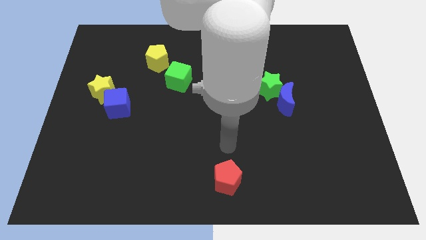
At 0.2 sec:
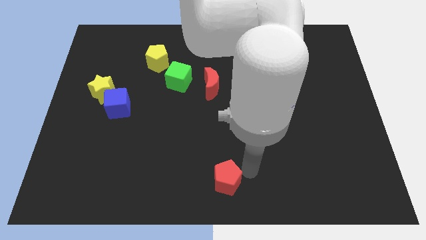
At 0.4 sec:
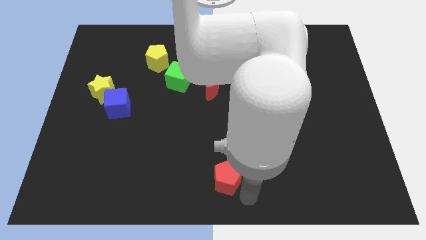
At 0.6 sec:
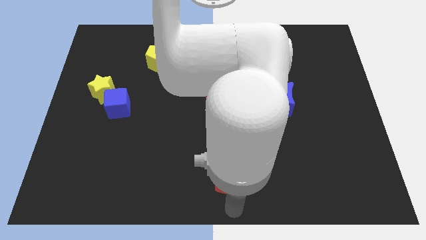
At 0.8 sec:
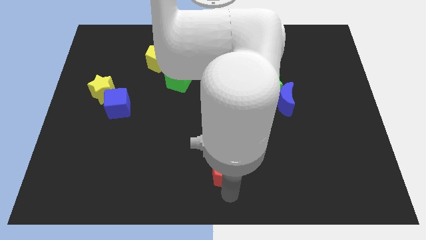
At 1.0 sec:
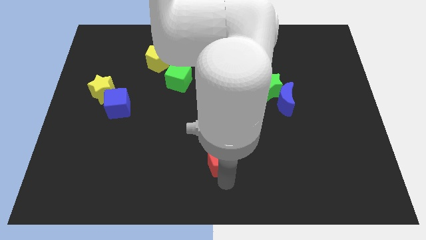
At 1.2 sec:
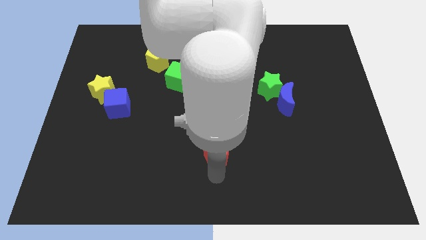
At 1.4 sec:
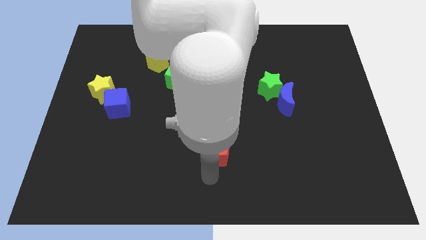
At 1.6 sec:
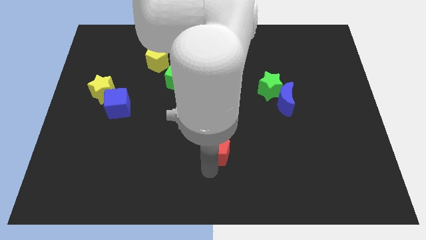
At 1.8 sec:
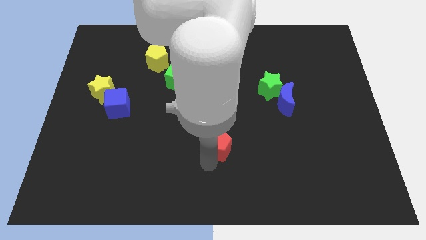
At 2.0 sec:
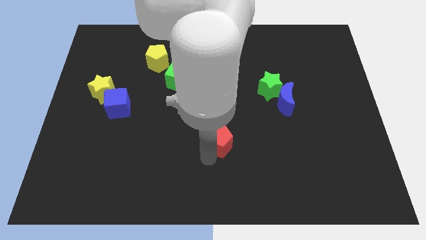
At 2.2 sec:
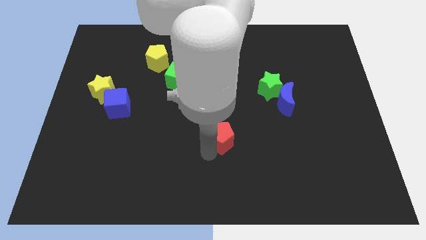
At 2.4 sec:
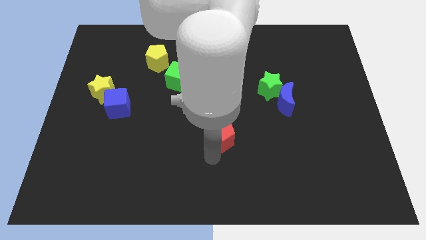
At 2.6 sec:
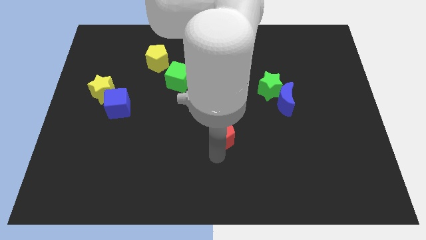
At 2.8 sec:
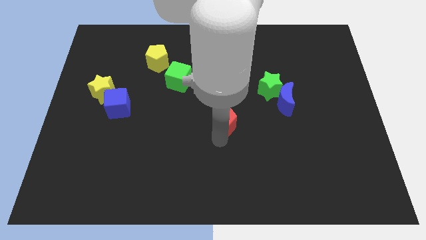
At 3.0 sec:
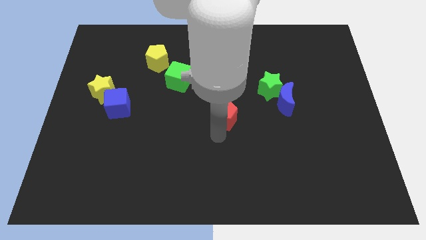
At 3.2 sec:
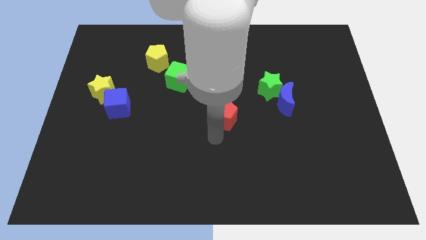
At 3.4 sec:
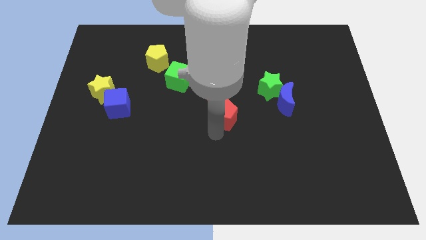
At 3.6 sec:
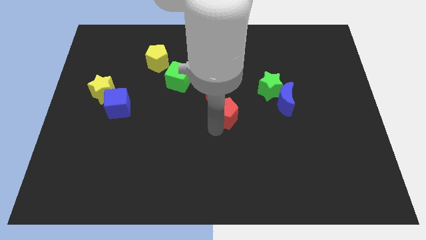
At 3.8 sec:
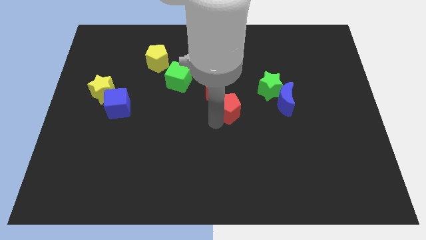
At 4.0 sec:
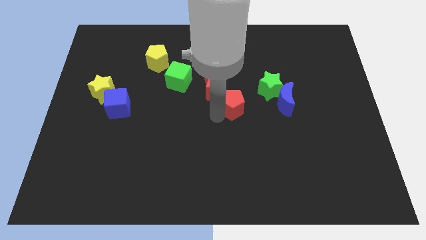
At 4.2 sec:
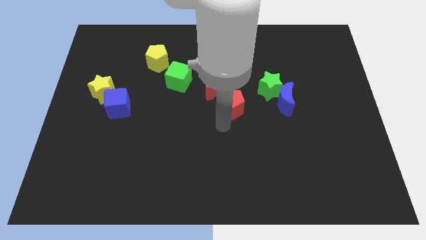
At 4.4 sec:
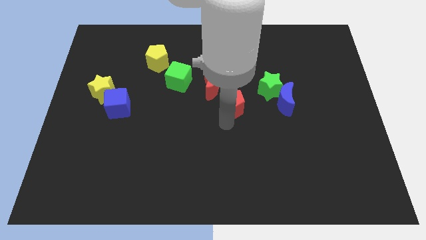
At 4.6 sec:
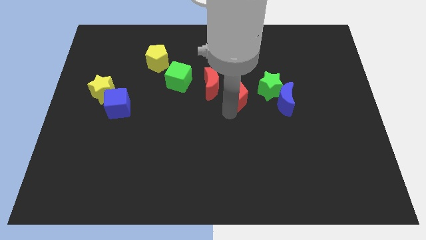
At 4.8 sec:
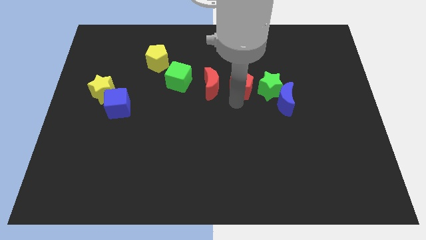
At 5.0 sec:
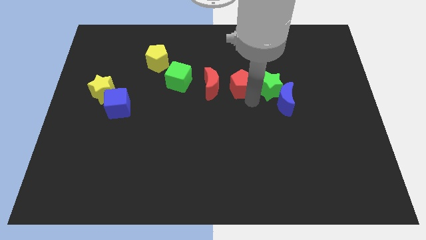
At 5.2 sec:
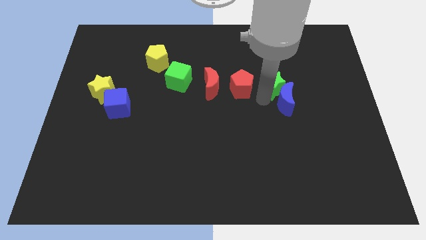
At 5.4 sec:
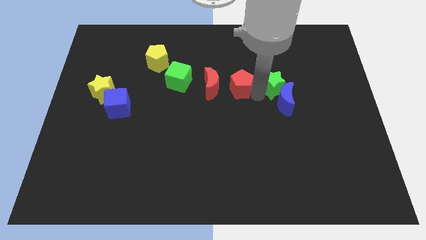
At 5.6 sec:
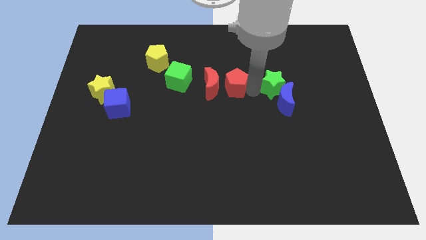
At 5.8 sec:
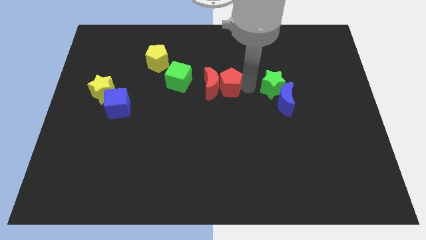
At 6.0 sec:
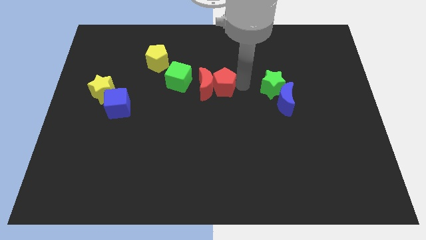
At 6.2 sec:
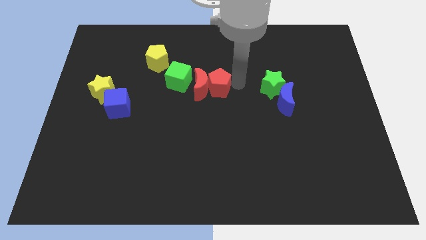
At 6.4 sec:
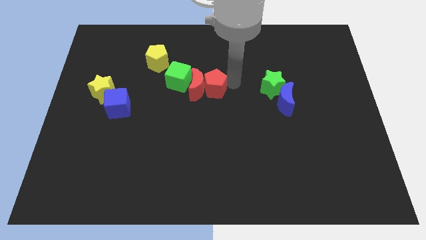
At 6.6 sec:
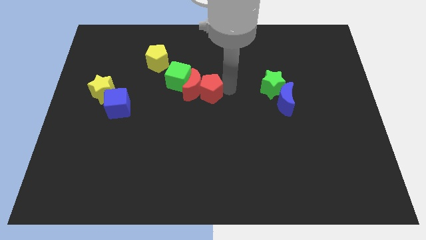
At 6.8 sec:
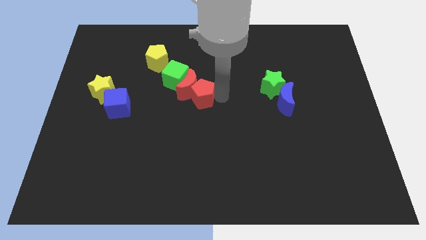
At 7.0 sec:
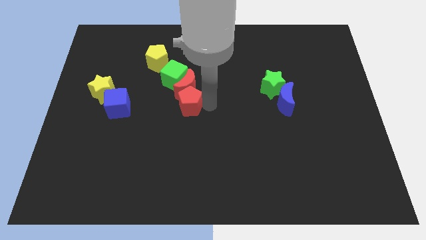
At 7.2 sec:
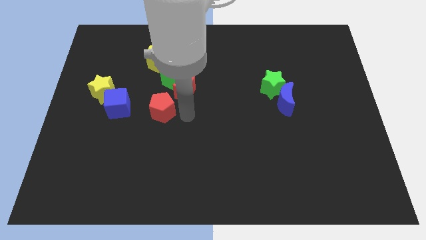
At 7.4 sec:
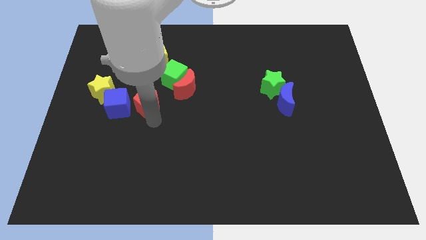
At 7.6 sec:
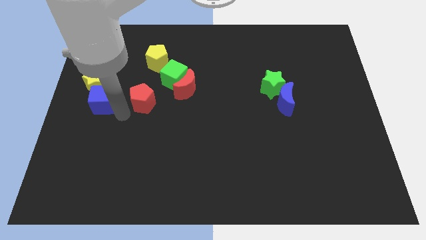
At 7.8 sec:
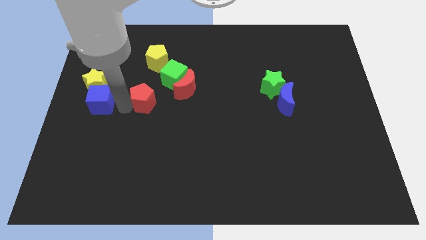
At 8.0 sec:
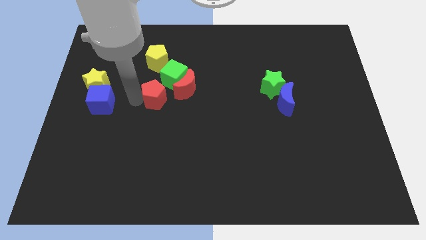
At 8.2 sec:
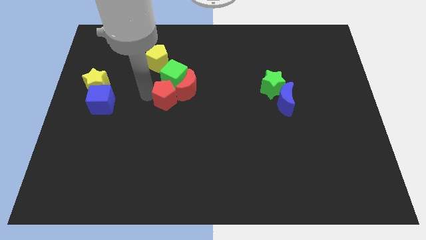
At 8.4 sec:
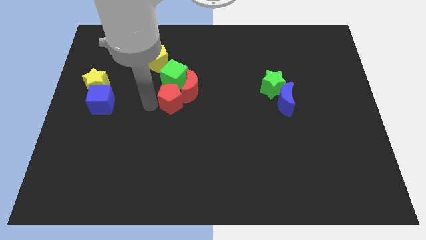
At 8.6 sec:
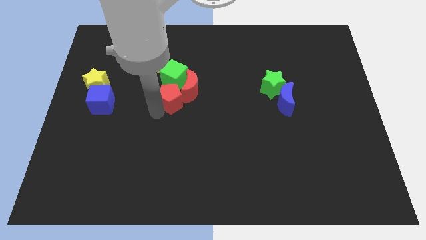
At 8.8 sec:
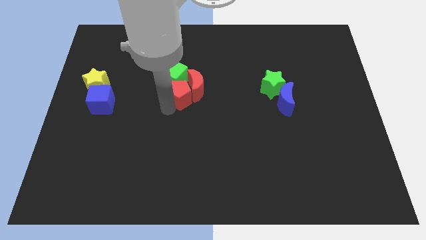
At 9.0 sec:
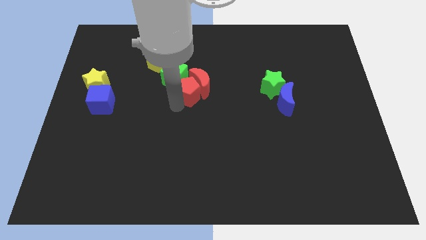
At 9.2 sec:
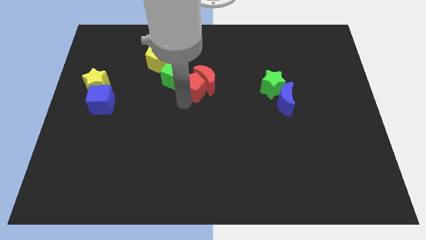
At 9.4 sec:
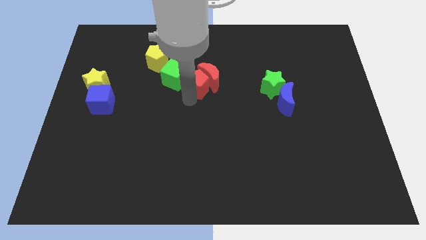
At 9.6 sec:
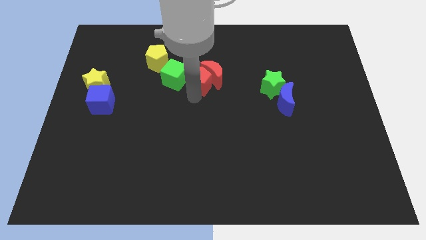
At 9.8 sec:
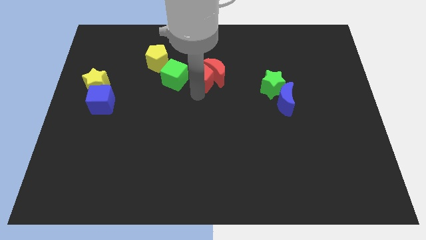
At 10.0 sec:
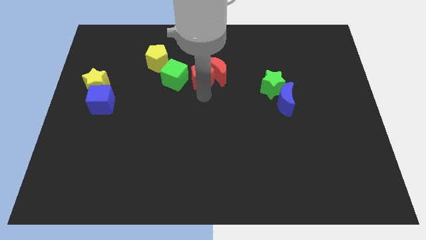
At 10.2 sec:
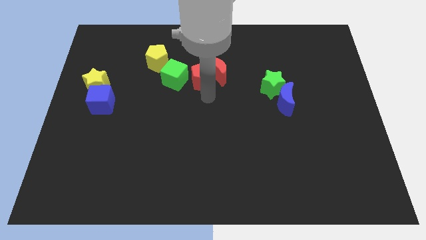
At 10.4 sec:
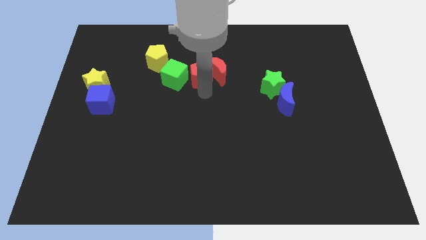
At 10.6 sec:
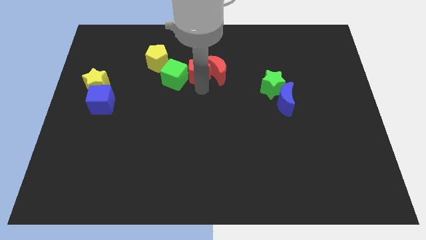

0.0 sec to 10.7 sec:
push the red pentagon just right of the yellow pentagon

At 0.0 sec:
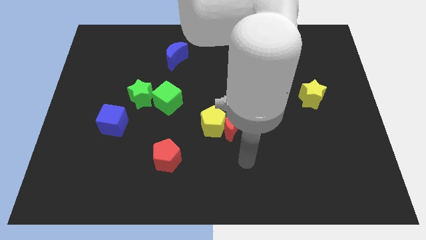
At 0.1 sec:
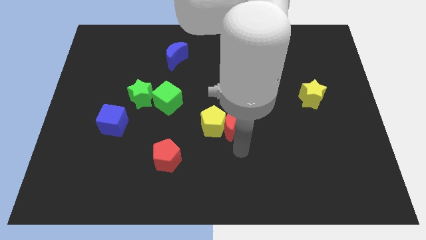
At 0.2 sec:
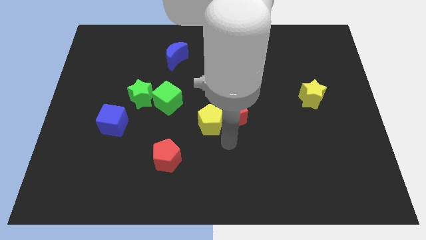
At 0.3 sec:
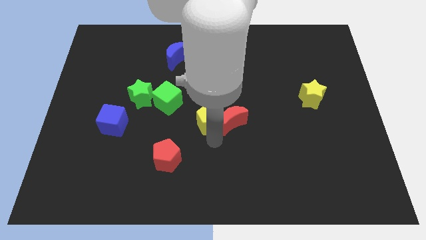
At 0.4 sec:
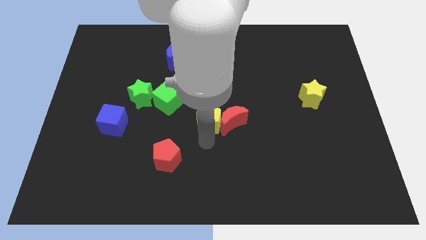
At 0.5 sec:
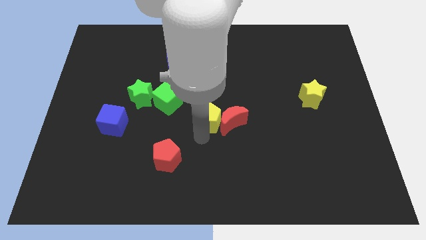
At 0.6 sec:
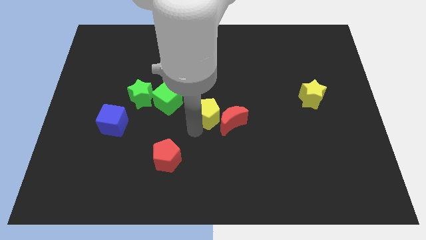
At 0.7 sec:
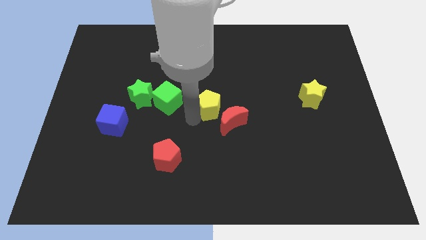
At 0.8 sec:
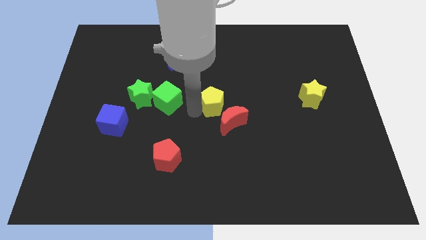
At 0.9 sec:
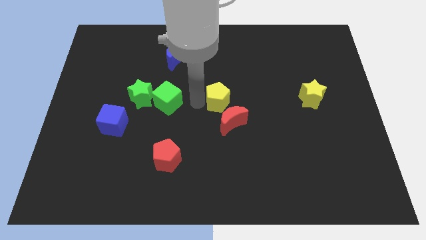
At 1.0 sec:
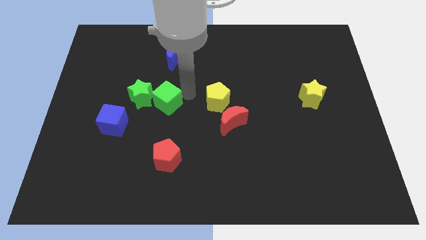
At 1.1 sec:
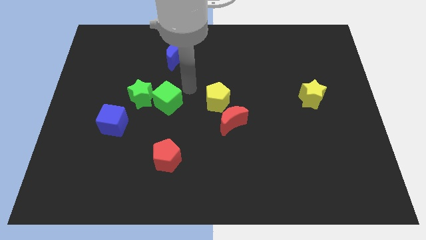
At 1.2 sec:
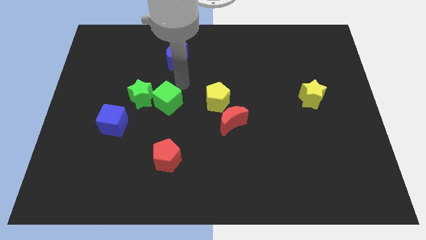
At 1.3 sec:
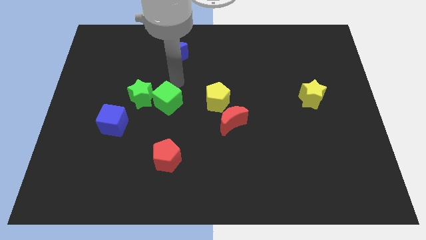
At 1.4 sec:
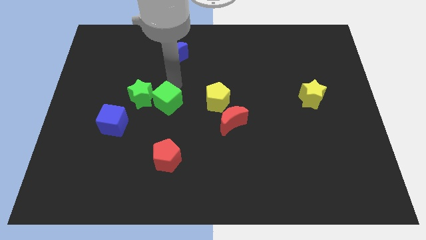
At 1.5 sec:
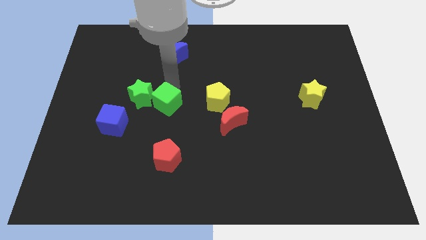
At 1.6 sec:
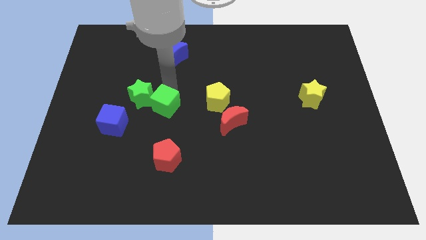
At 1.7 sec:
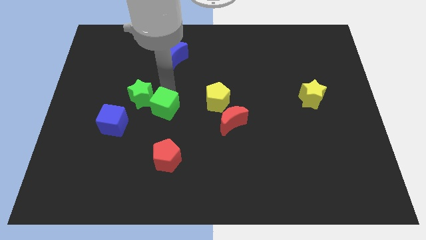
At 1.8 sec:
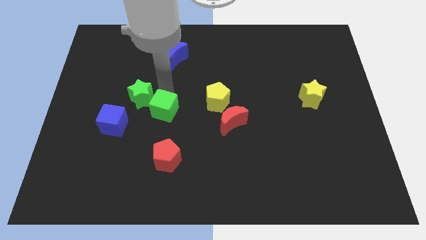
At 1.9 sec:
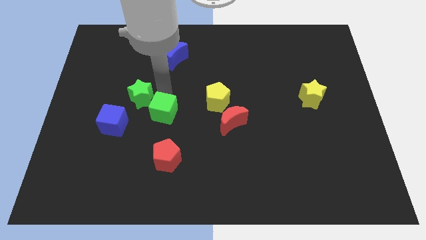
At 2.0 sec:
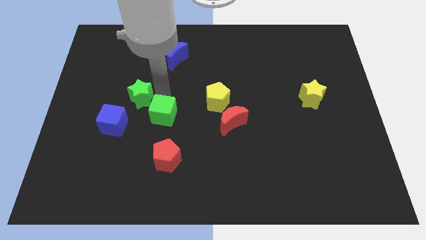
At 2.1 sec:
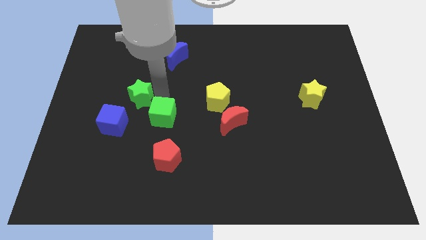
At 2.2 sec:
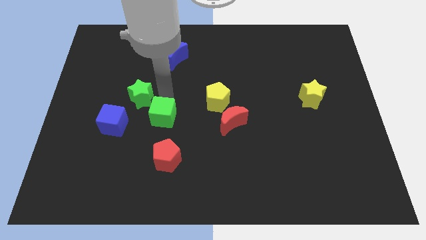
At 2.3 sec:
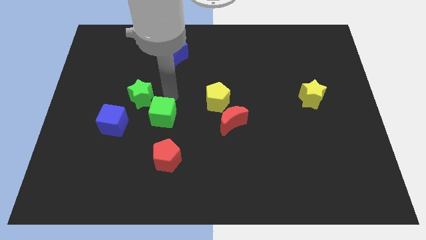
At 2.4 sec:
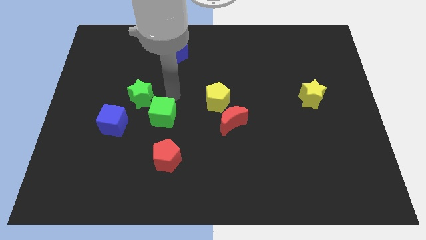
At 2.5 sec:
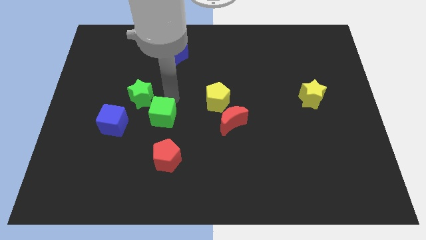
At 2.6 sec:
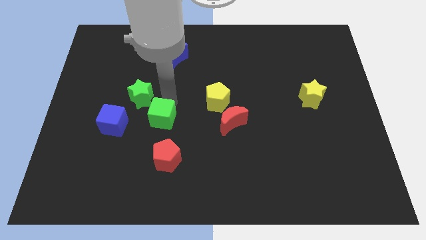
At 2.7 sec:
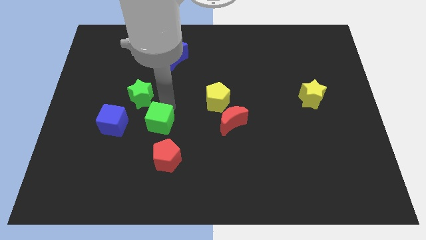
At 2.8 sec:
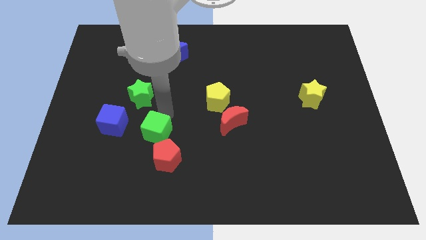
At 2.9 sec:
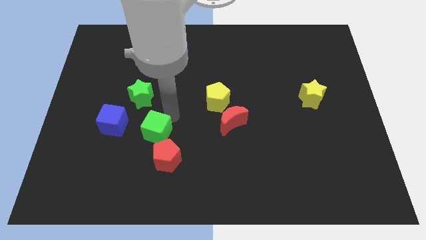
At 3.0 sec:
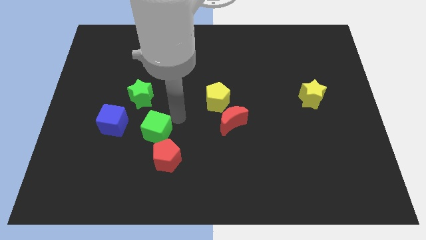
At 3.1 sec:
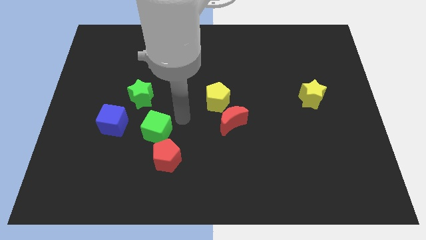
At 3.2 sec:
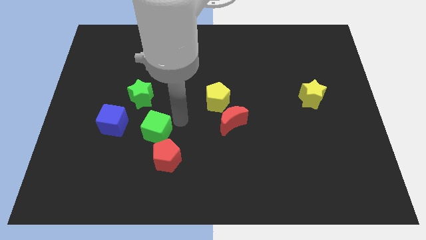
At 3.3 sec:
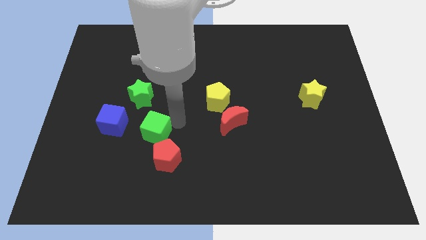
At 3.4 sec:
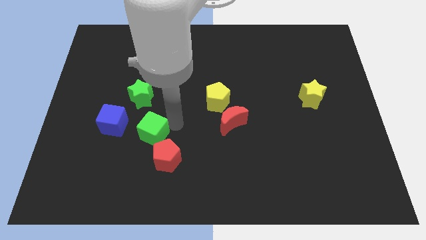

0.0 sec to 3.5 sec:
slide the green cube to the bottom right of the blue cube
